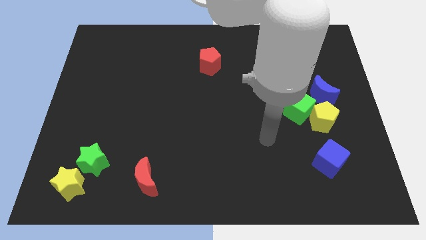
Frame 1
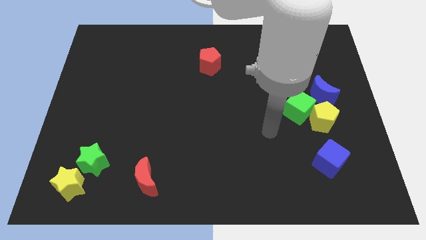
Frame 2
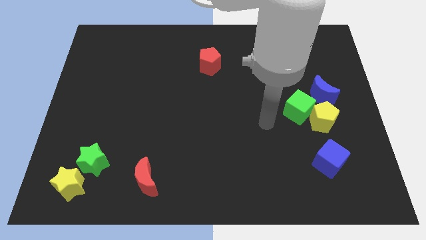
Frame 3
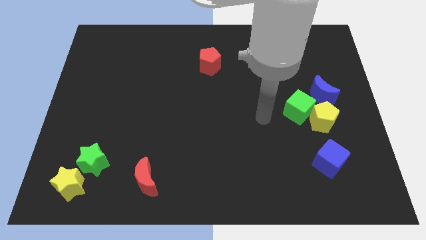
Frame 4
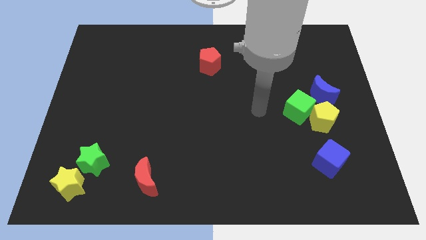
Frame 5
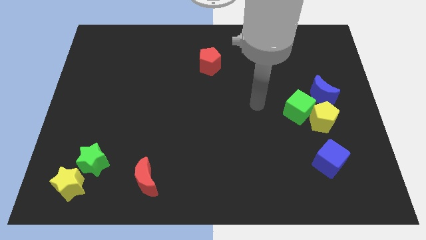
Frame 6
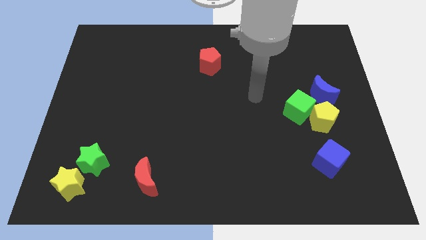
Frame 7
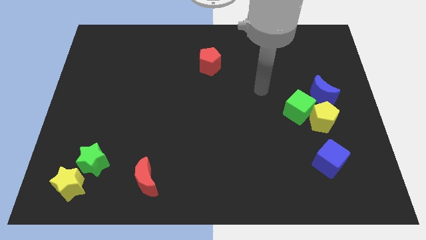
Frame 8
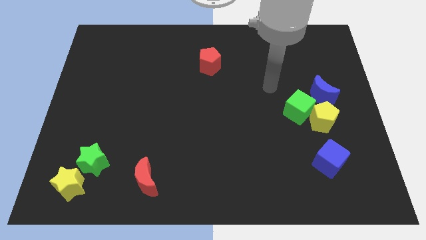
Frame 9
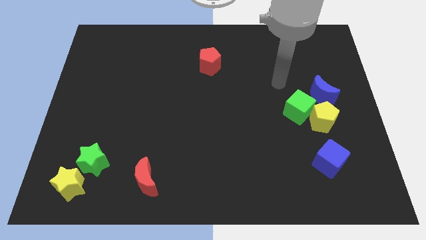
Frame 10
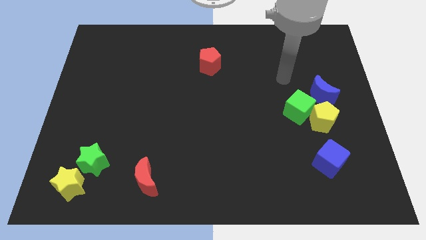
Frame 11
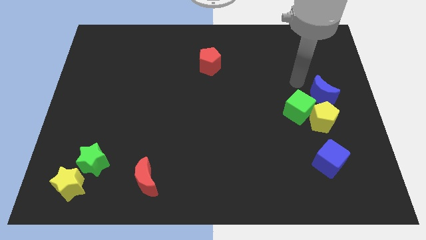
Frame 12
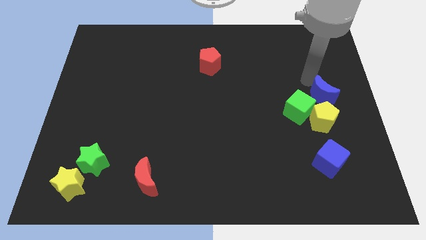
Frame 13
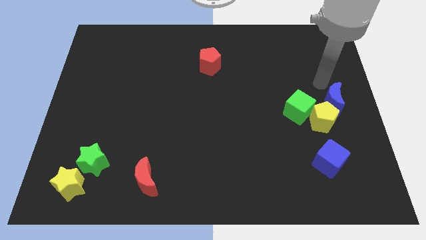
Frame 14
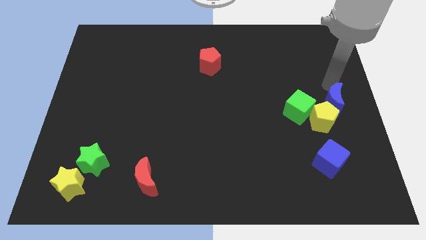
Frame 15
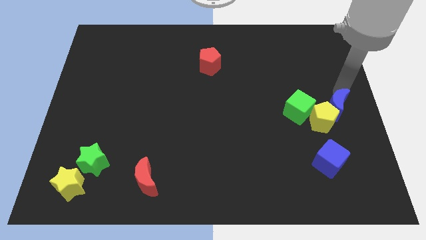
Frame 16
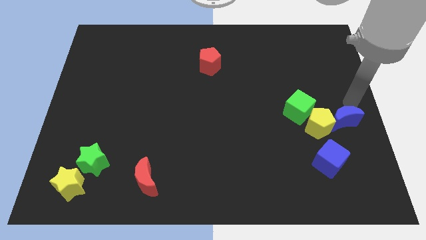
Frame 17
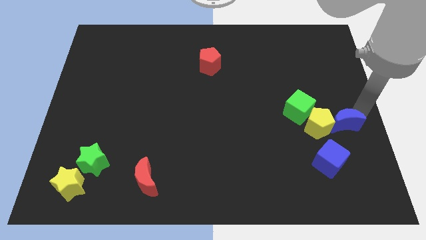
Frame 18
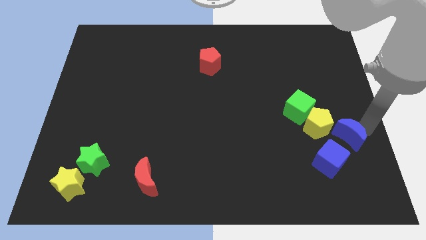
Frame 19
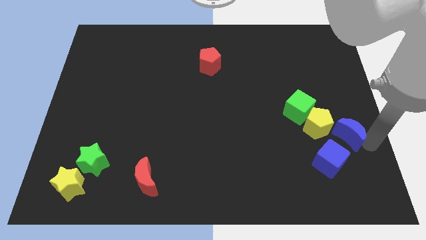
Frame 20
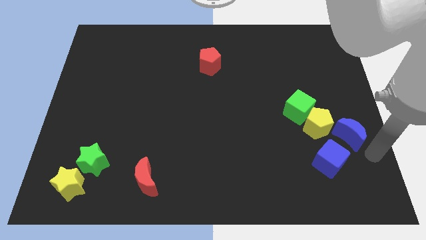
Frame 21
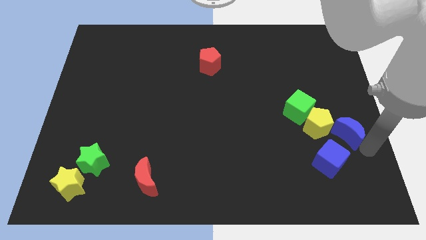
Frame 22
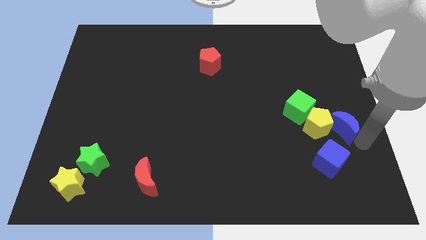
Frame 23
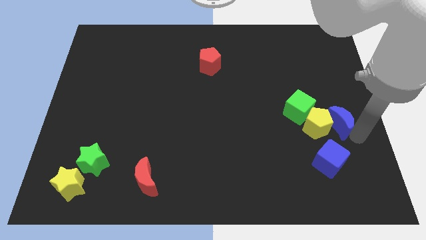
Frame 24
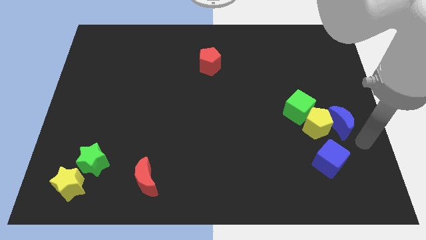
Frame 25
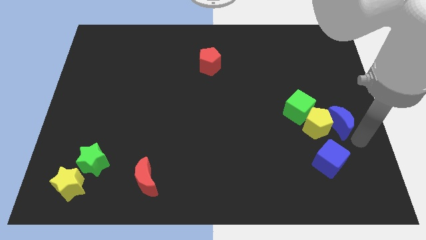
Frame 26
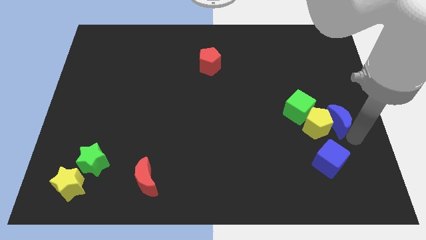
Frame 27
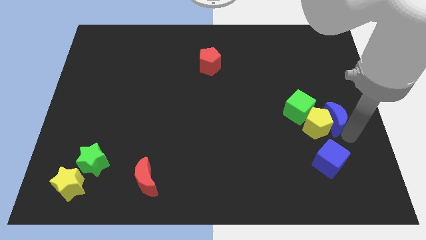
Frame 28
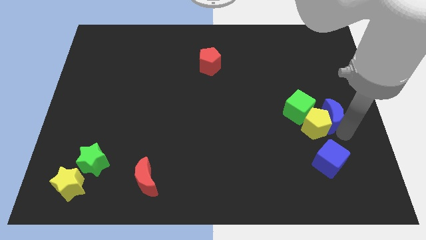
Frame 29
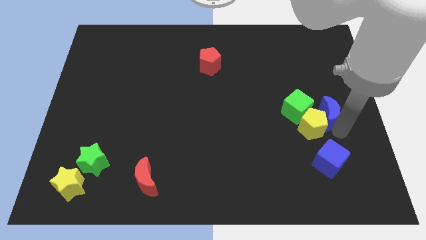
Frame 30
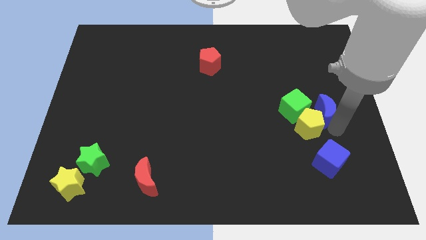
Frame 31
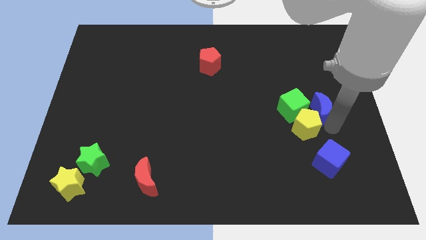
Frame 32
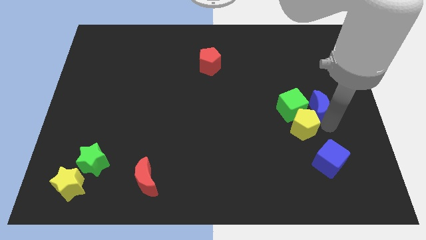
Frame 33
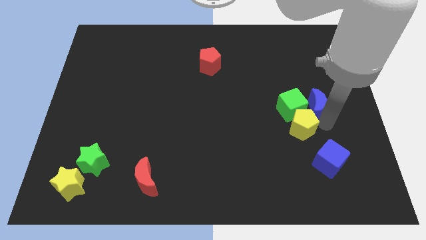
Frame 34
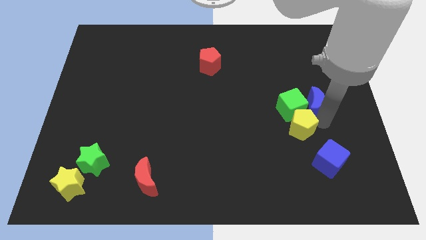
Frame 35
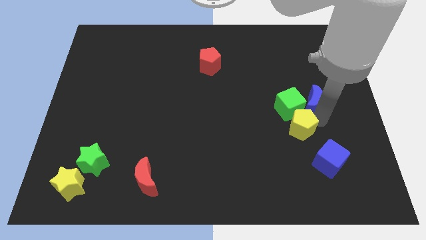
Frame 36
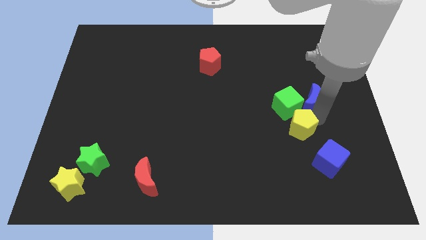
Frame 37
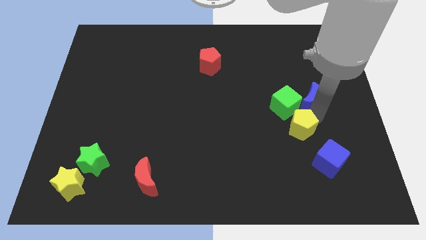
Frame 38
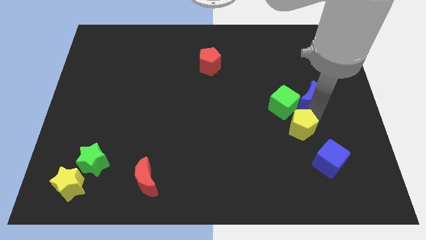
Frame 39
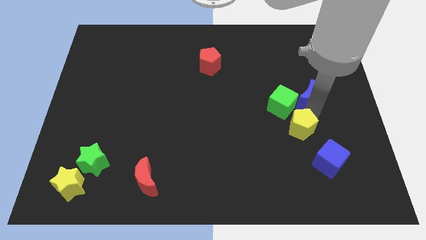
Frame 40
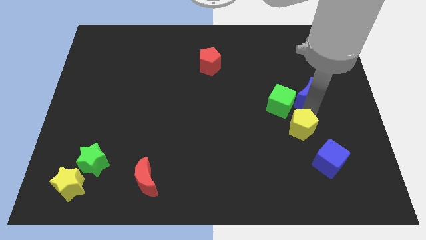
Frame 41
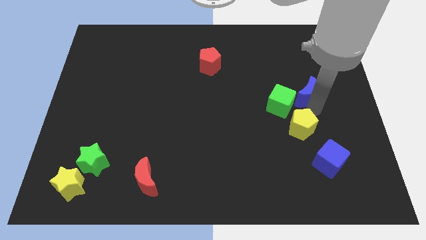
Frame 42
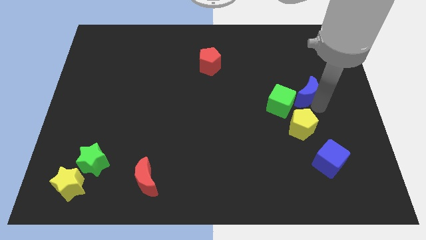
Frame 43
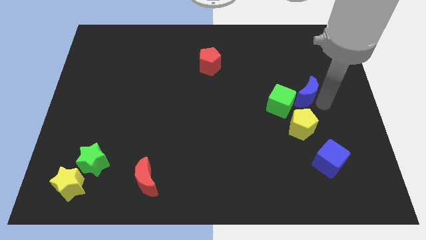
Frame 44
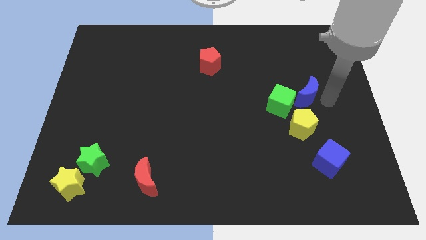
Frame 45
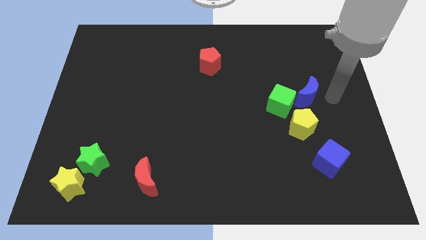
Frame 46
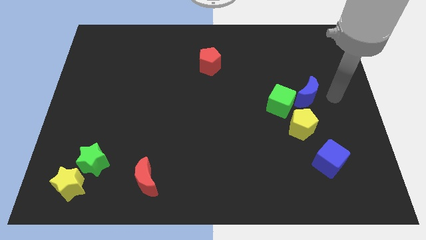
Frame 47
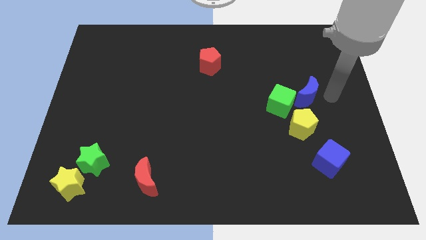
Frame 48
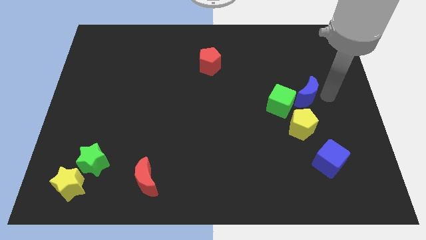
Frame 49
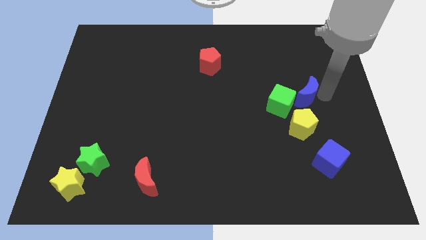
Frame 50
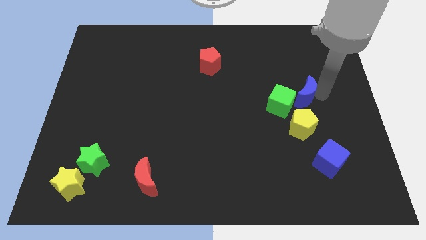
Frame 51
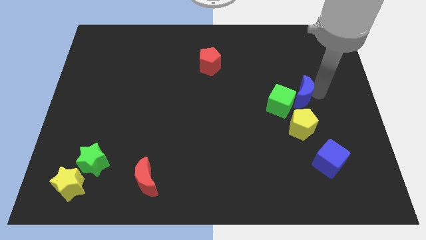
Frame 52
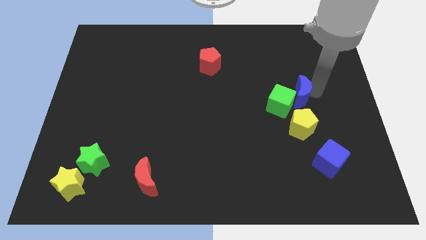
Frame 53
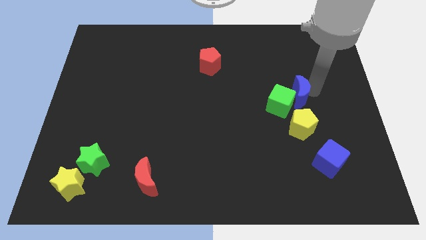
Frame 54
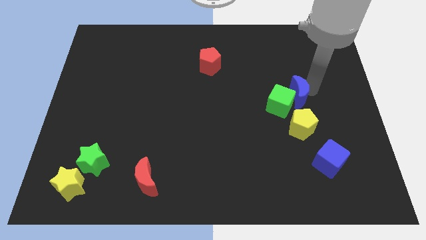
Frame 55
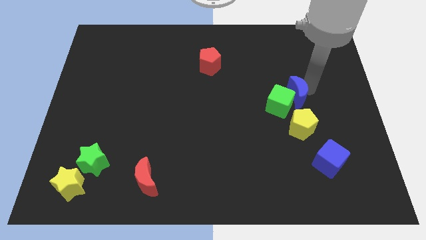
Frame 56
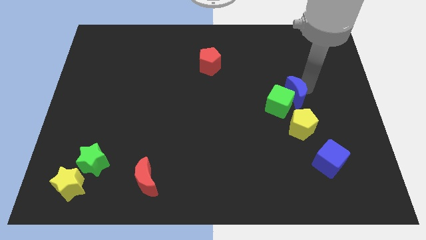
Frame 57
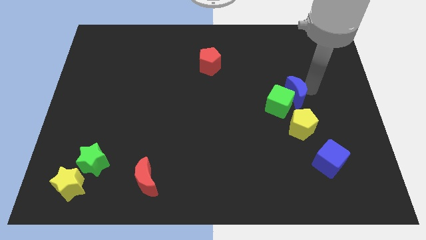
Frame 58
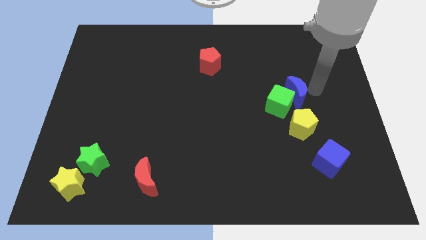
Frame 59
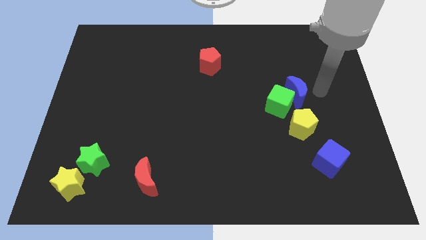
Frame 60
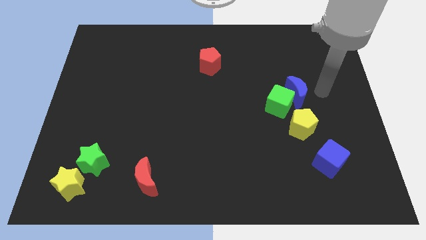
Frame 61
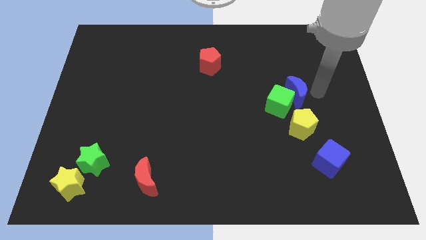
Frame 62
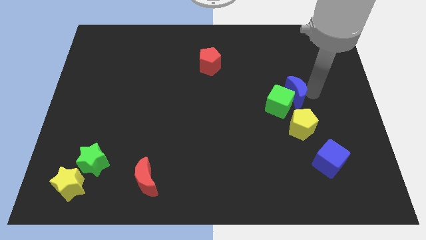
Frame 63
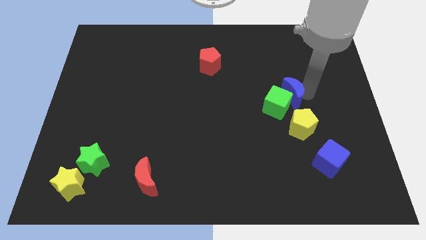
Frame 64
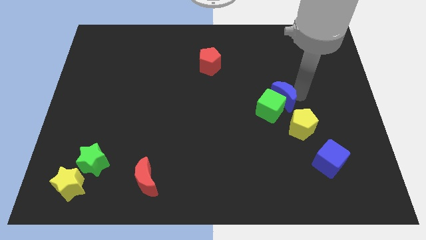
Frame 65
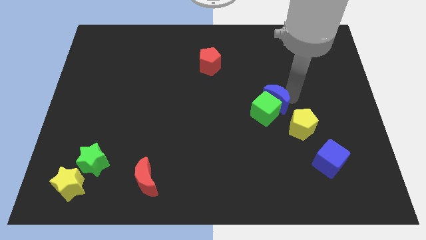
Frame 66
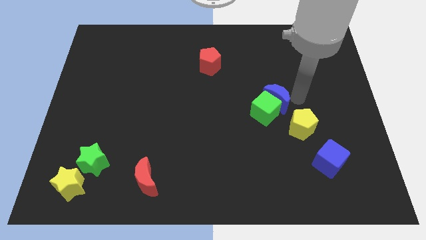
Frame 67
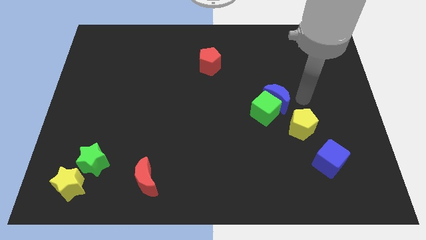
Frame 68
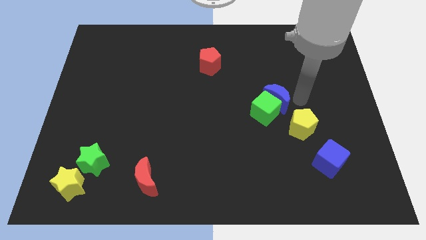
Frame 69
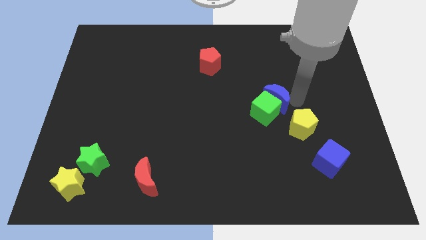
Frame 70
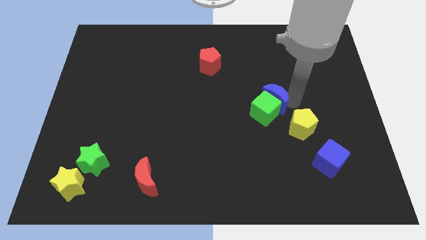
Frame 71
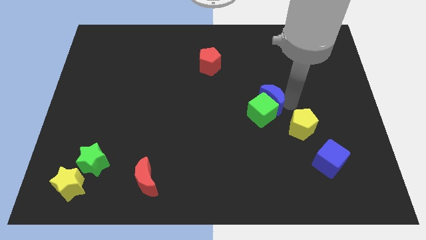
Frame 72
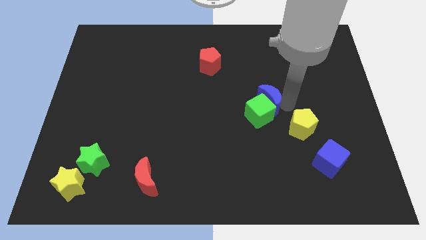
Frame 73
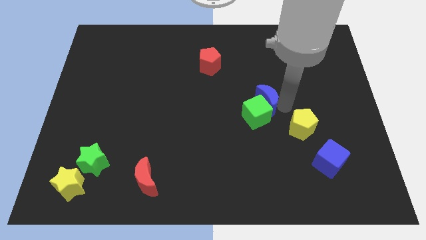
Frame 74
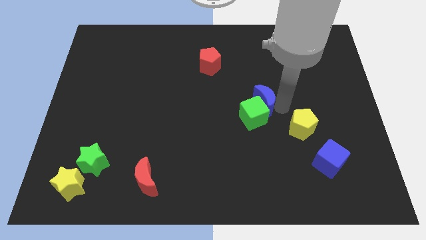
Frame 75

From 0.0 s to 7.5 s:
move the blue moon to the center of the board
